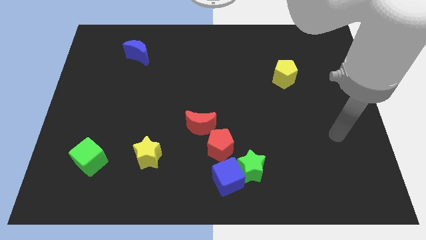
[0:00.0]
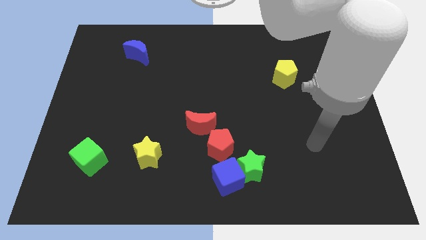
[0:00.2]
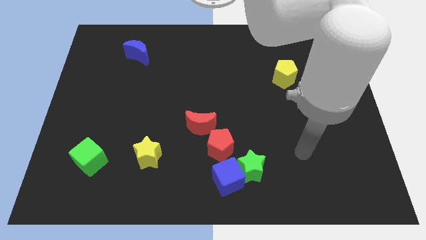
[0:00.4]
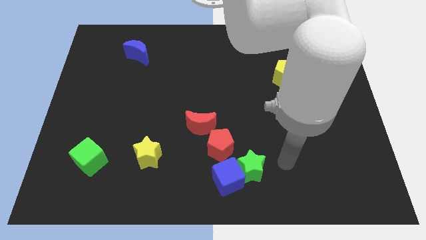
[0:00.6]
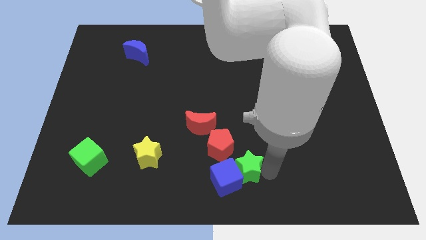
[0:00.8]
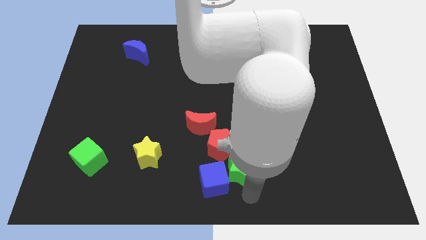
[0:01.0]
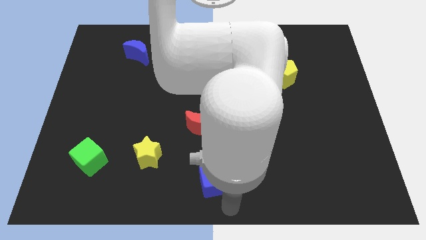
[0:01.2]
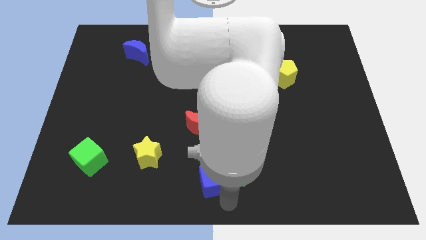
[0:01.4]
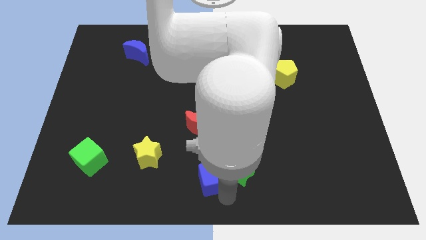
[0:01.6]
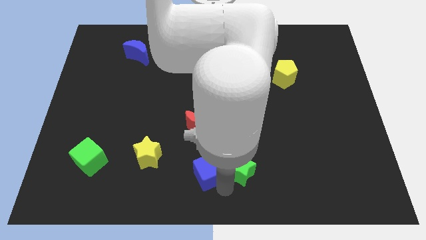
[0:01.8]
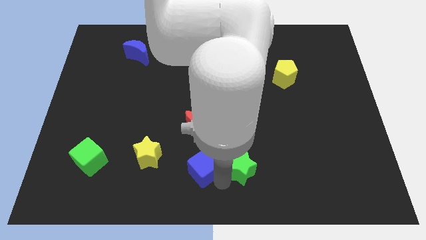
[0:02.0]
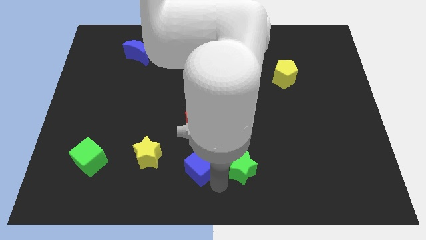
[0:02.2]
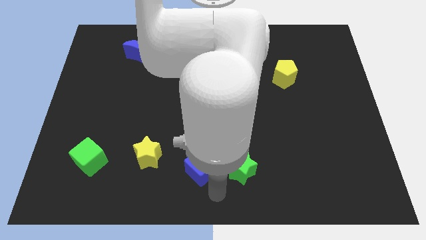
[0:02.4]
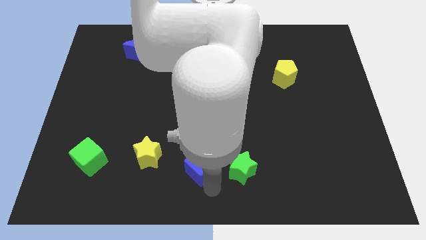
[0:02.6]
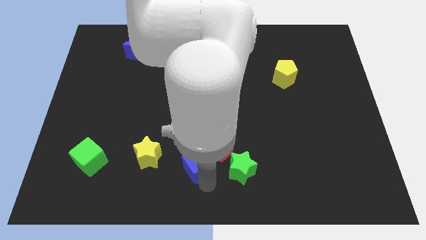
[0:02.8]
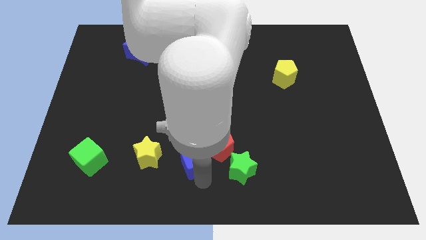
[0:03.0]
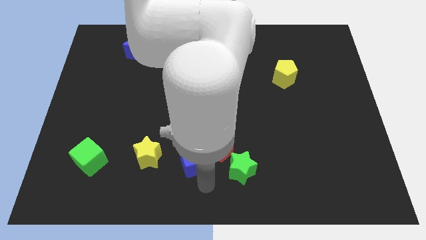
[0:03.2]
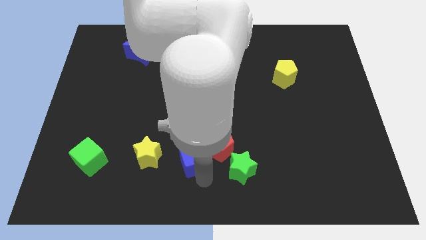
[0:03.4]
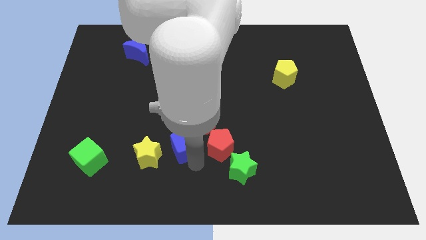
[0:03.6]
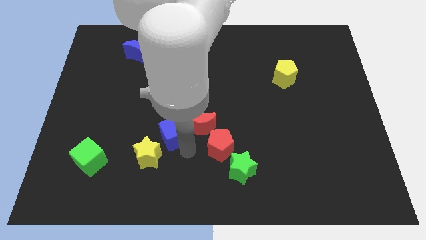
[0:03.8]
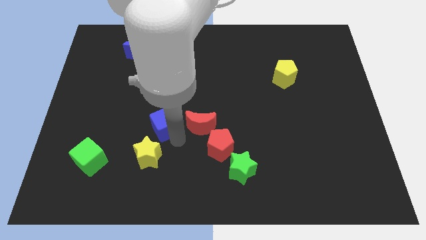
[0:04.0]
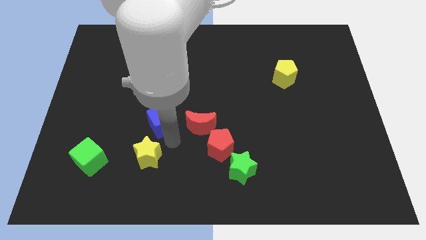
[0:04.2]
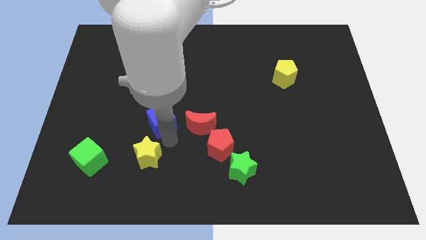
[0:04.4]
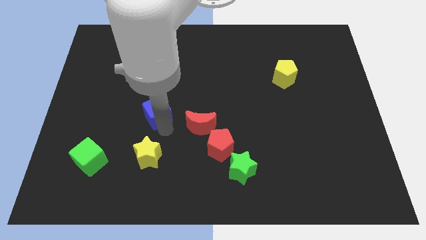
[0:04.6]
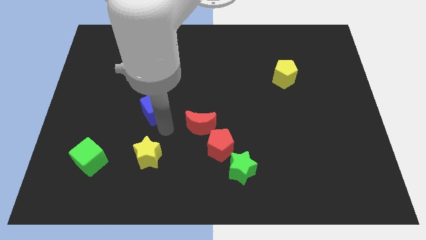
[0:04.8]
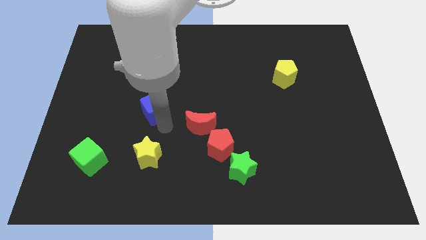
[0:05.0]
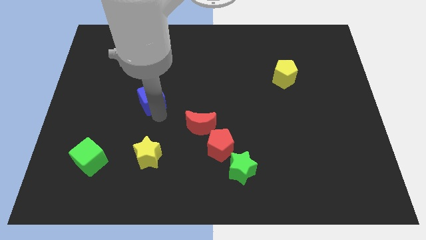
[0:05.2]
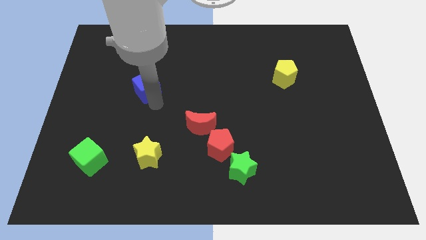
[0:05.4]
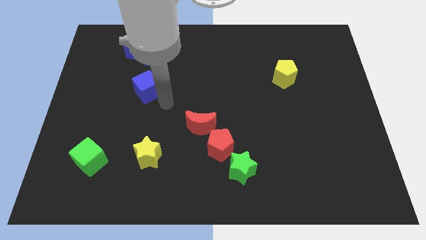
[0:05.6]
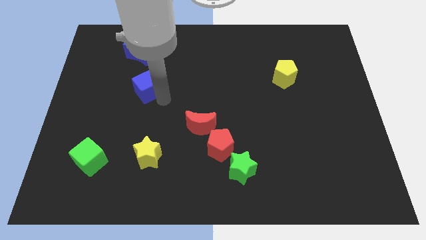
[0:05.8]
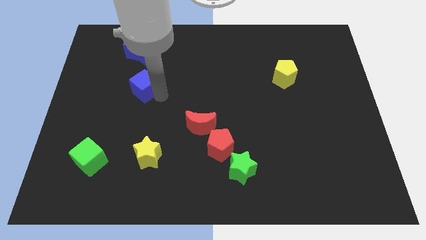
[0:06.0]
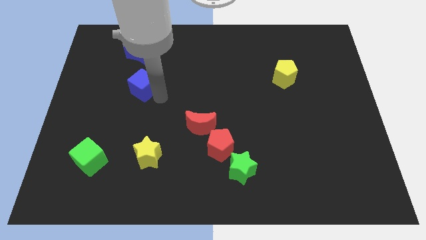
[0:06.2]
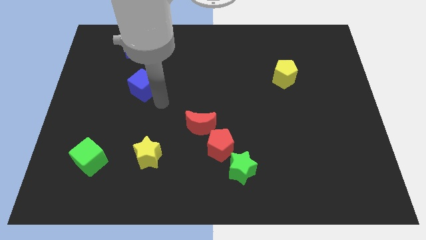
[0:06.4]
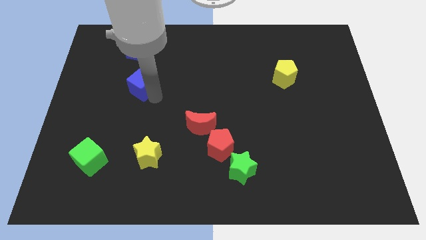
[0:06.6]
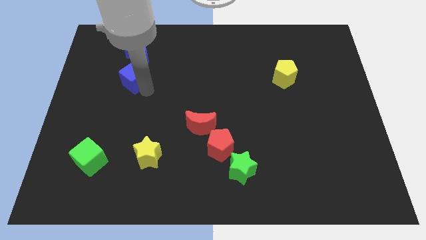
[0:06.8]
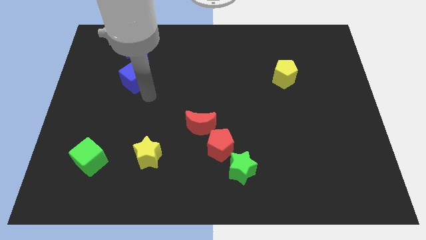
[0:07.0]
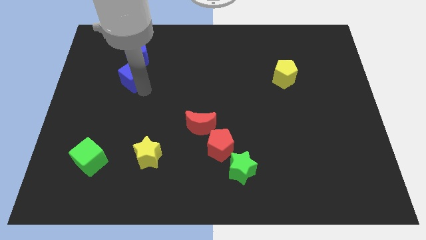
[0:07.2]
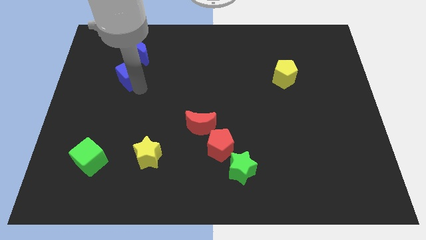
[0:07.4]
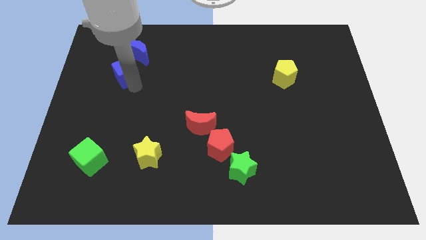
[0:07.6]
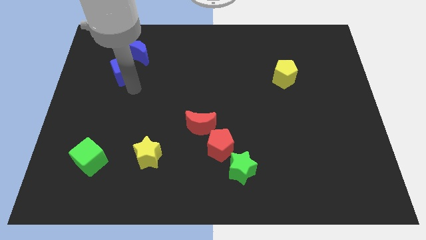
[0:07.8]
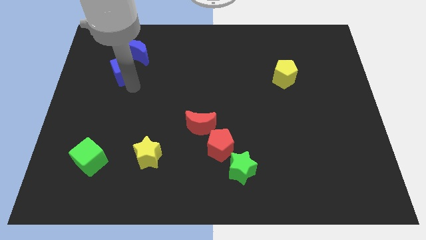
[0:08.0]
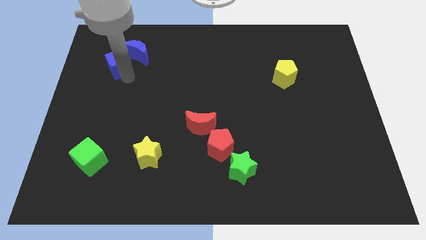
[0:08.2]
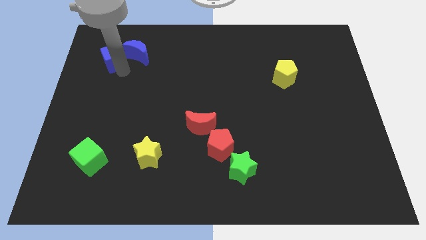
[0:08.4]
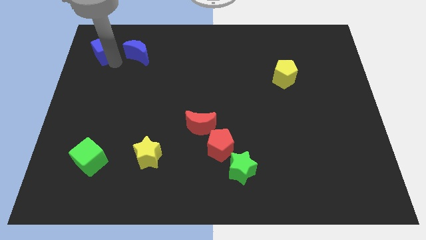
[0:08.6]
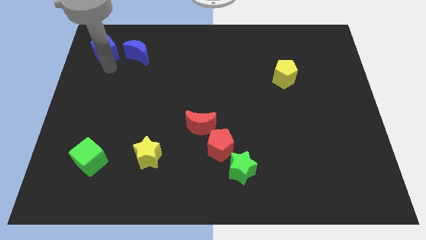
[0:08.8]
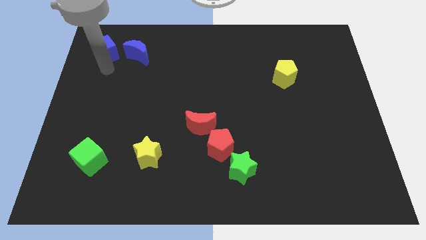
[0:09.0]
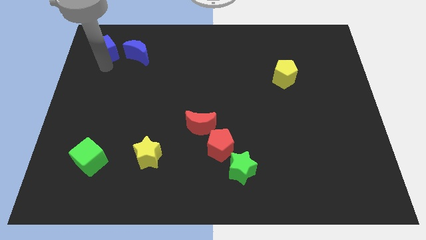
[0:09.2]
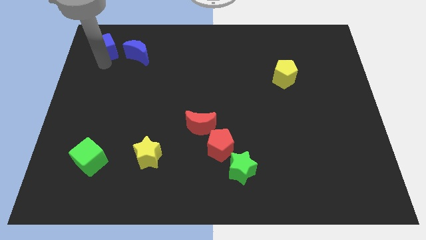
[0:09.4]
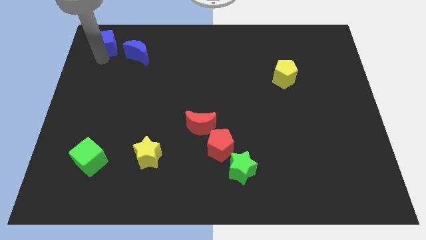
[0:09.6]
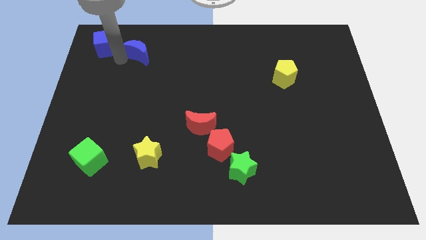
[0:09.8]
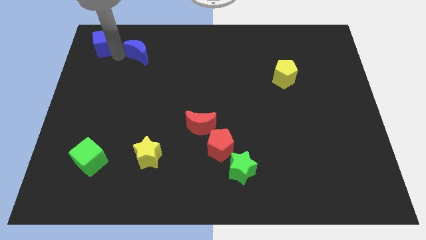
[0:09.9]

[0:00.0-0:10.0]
put the blue cube to the top left of the board

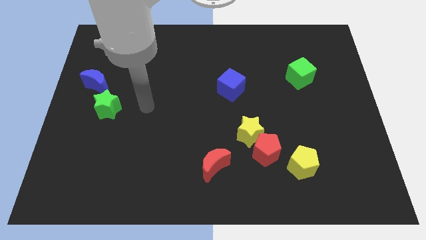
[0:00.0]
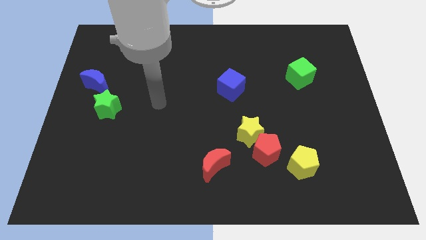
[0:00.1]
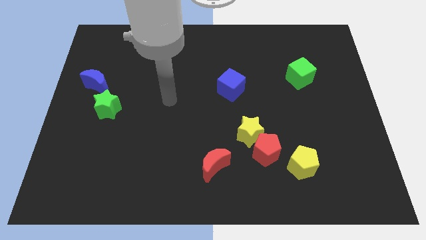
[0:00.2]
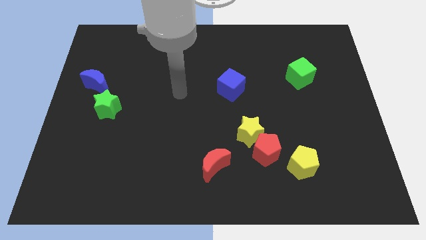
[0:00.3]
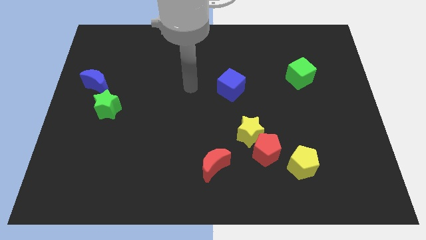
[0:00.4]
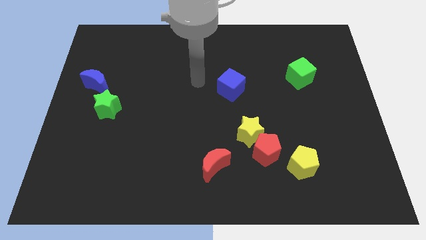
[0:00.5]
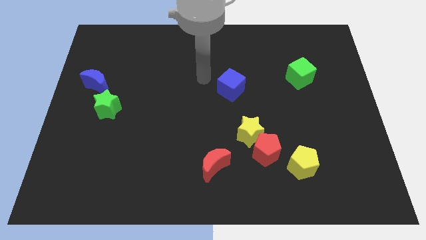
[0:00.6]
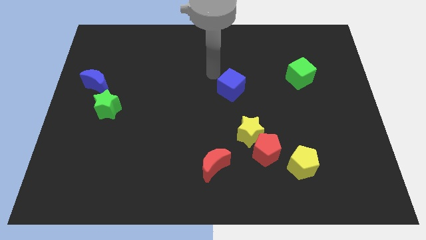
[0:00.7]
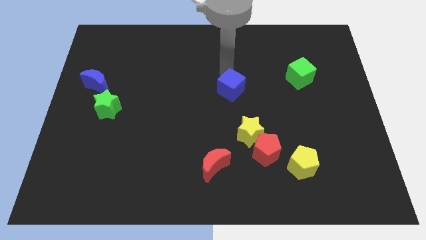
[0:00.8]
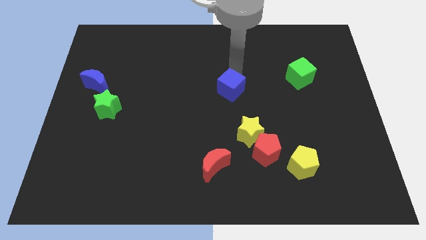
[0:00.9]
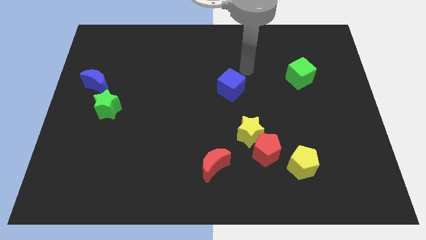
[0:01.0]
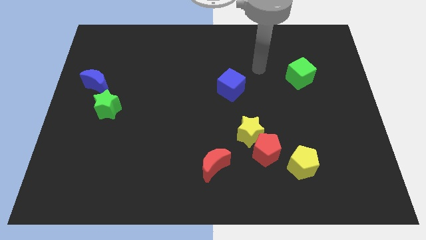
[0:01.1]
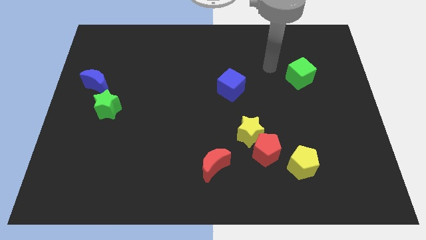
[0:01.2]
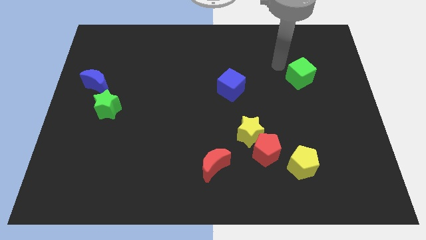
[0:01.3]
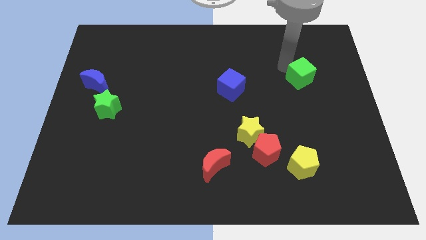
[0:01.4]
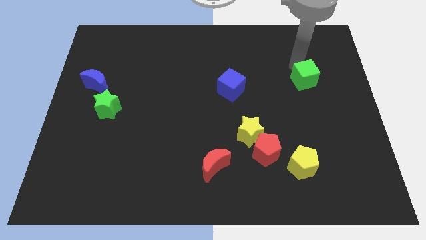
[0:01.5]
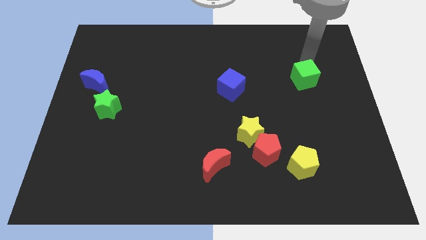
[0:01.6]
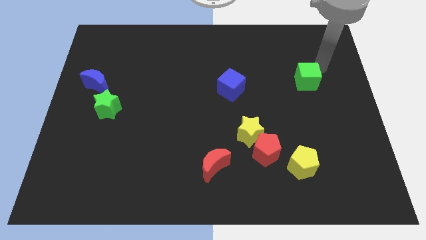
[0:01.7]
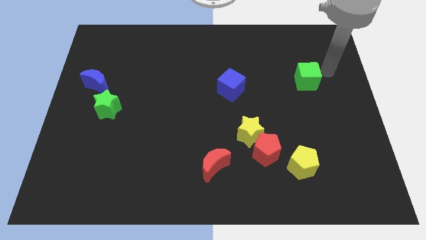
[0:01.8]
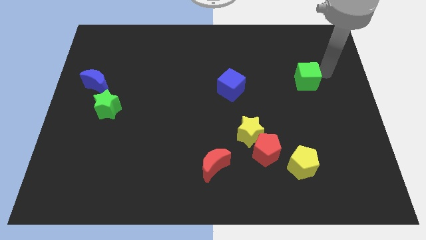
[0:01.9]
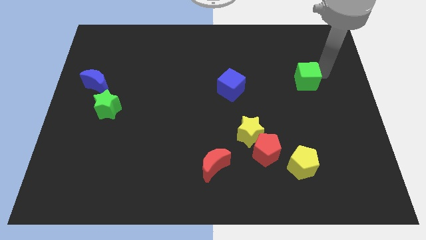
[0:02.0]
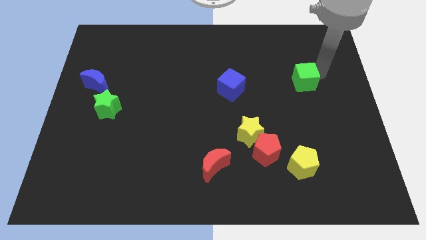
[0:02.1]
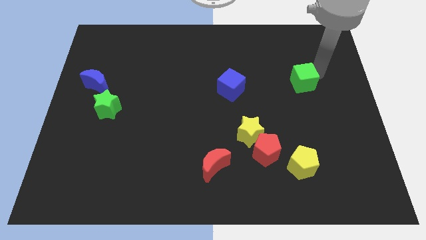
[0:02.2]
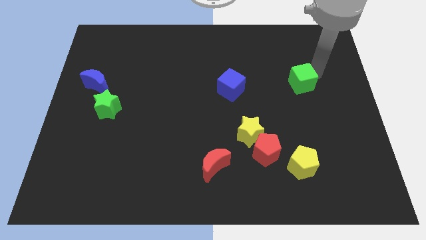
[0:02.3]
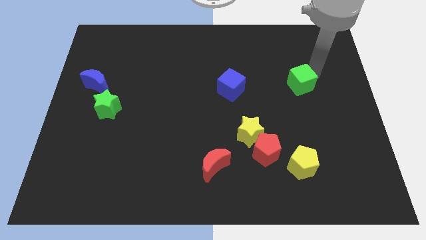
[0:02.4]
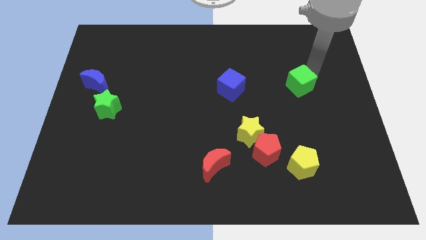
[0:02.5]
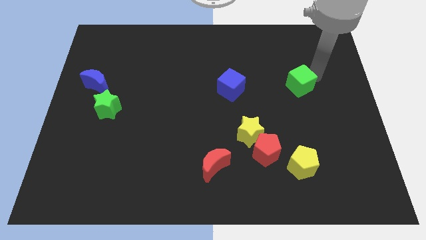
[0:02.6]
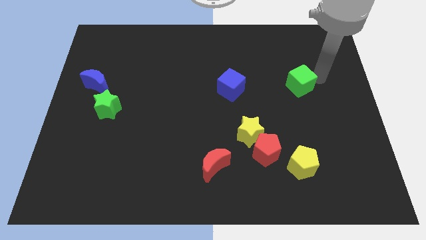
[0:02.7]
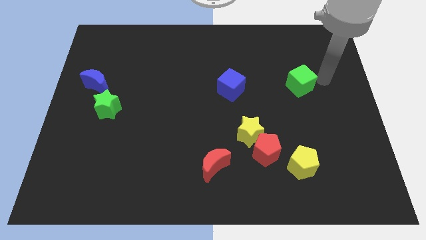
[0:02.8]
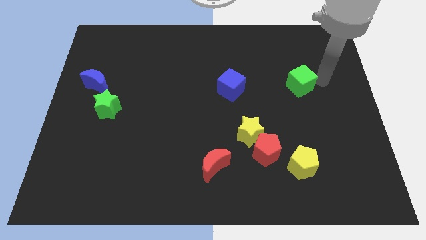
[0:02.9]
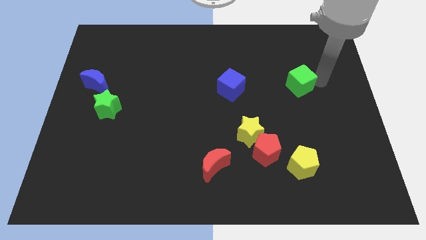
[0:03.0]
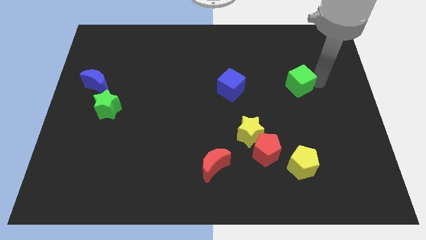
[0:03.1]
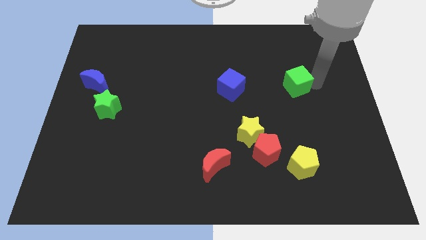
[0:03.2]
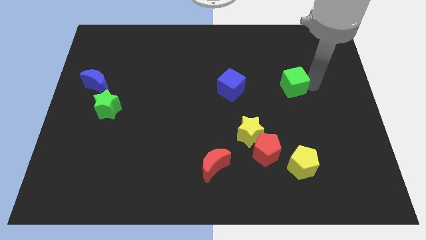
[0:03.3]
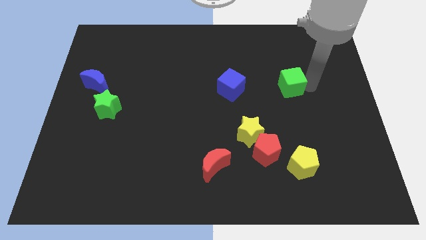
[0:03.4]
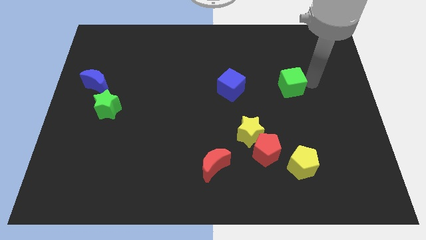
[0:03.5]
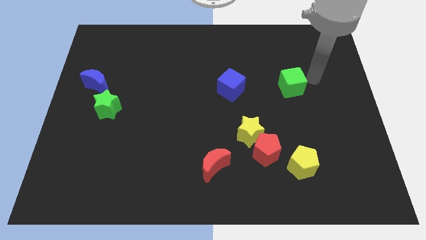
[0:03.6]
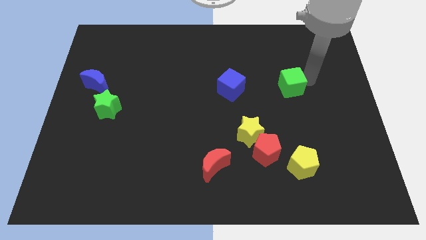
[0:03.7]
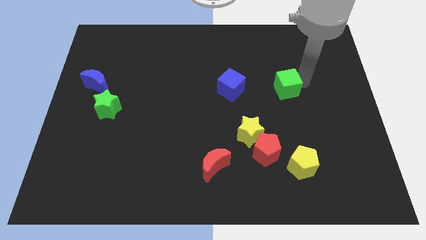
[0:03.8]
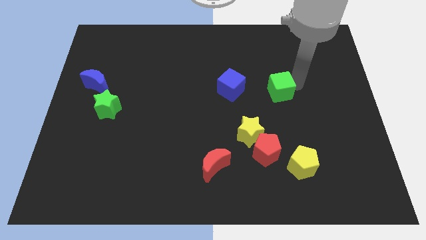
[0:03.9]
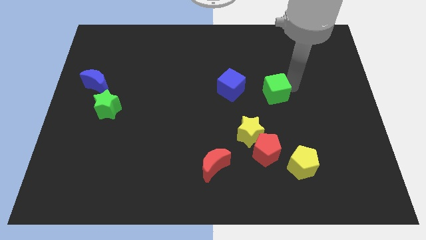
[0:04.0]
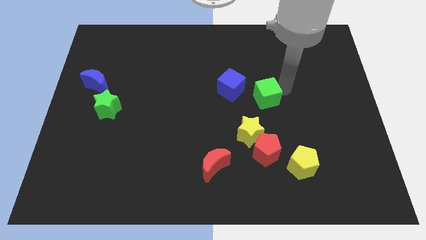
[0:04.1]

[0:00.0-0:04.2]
push the green cube to the center
